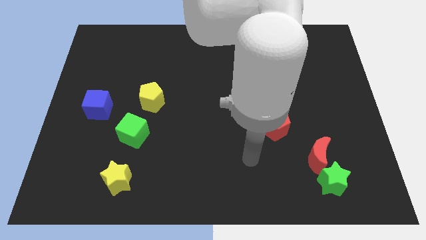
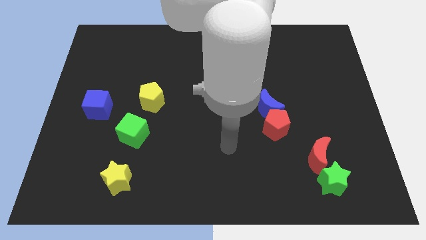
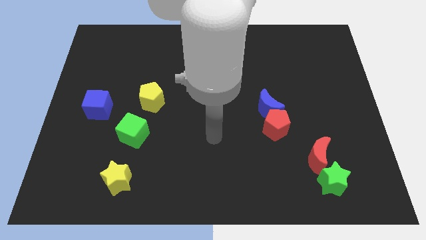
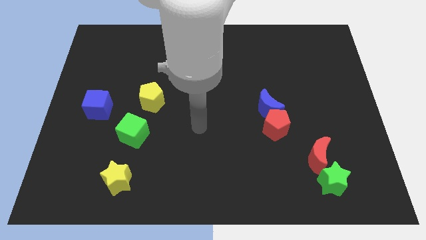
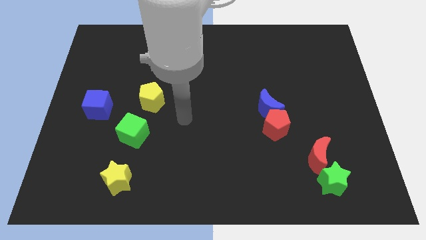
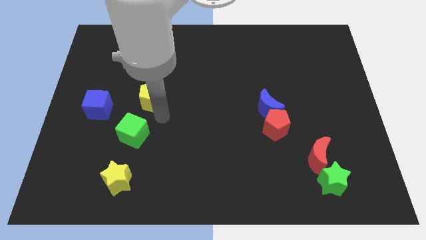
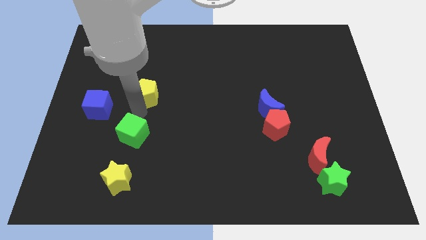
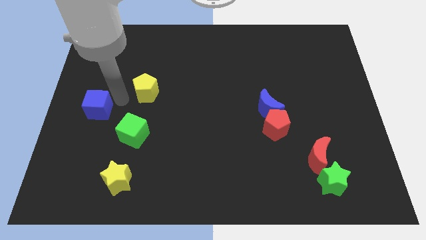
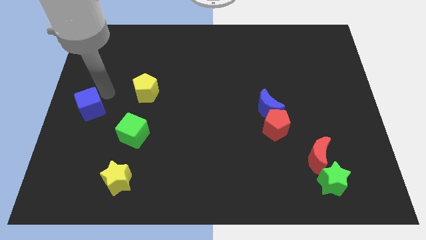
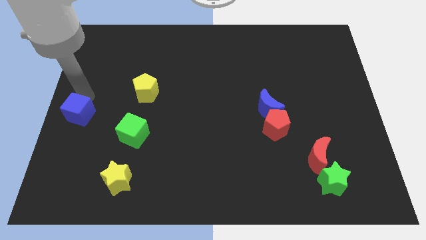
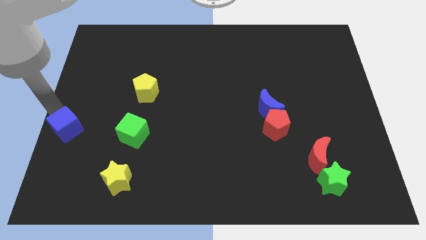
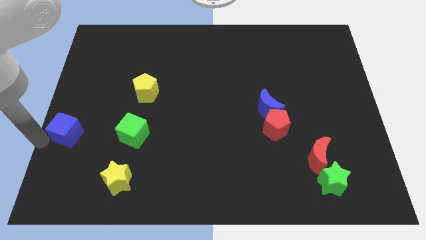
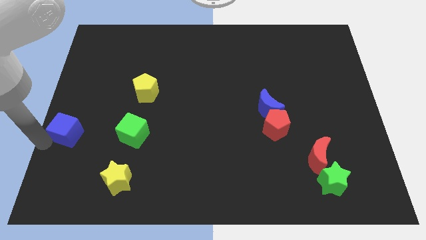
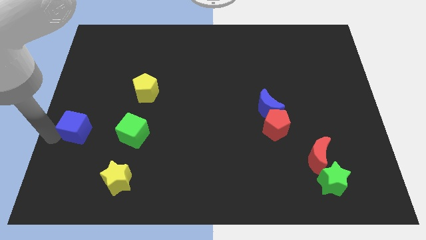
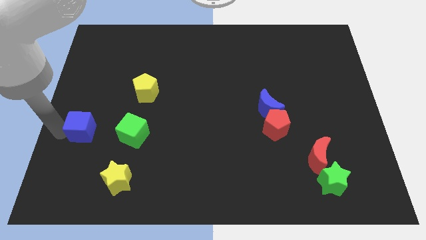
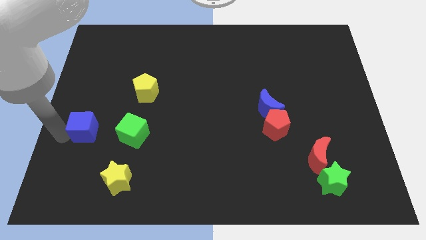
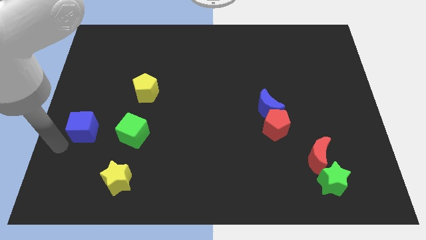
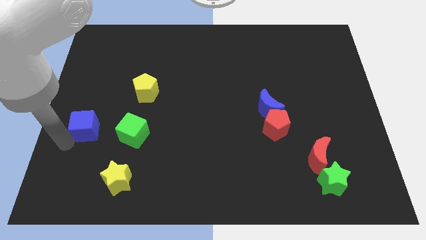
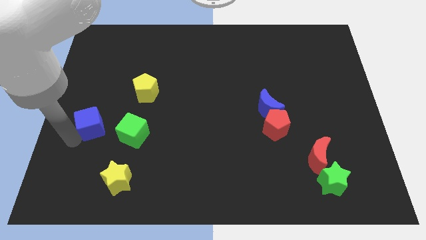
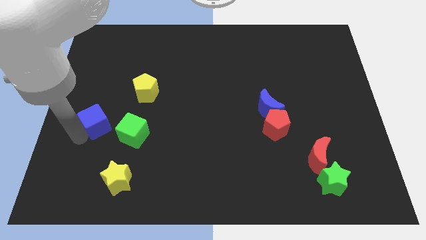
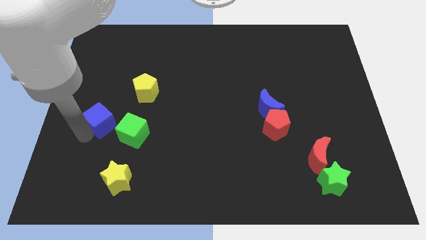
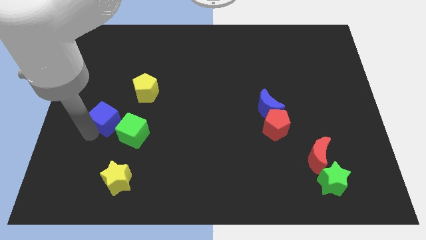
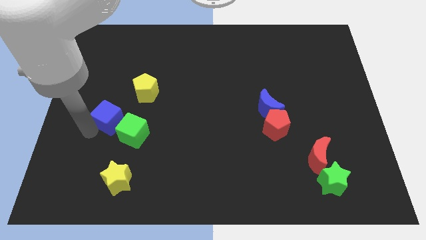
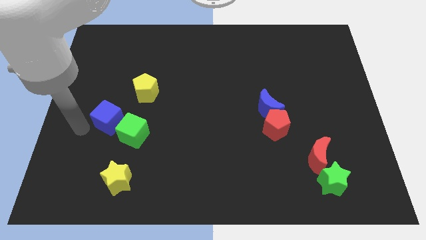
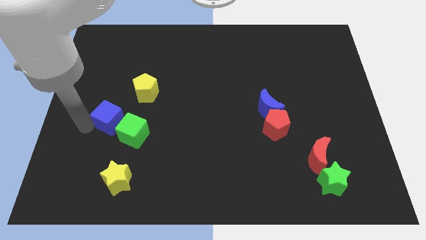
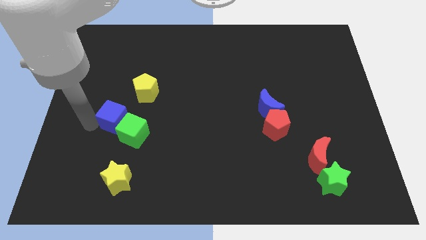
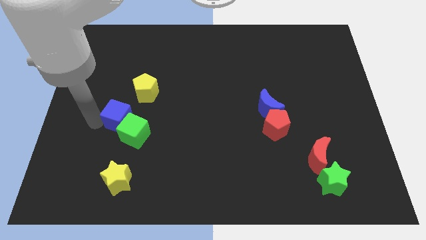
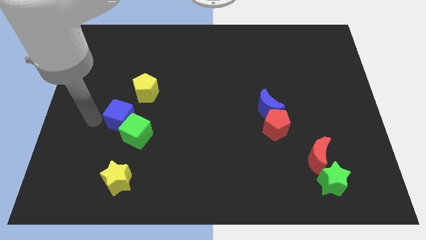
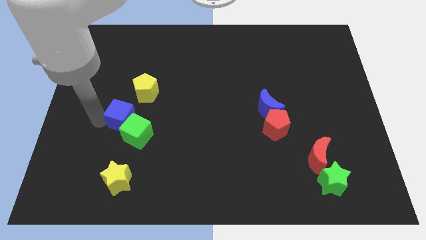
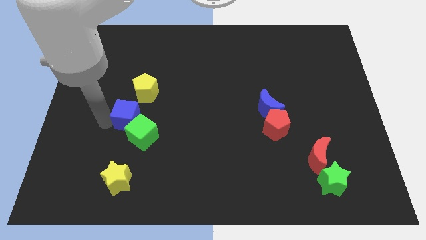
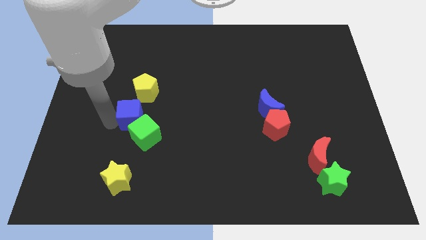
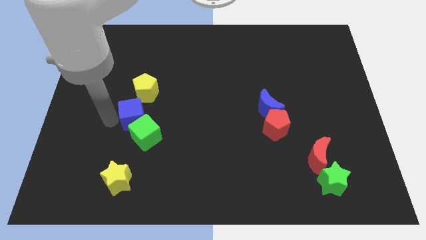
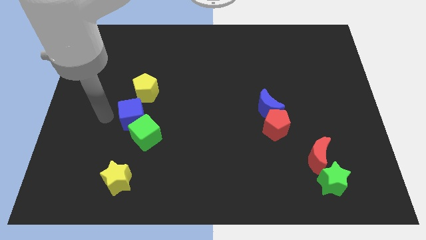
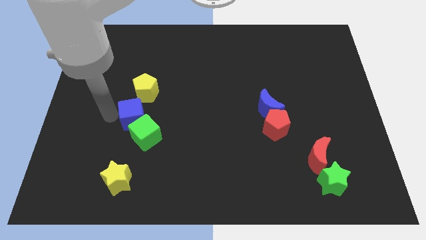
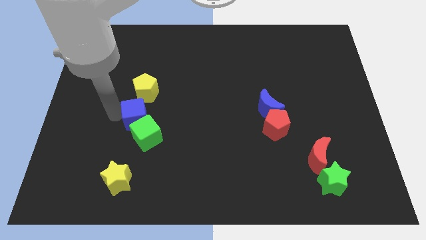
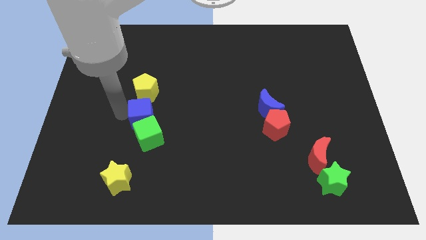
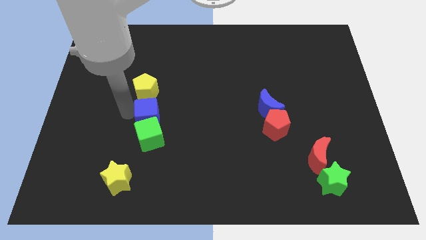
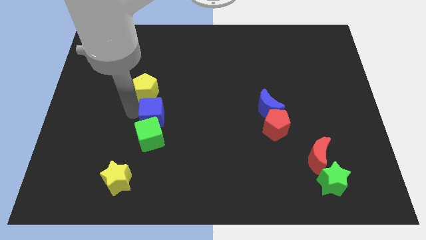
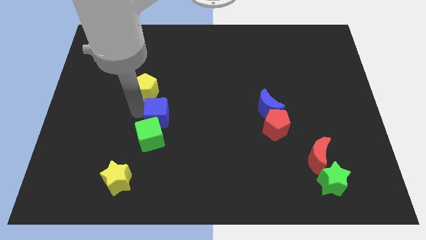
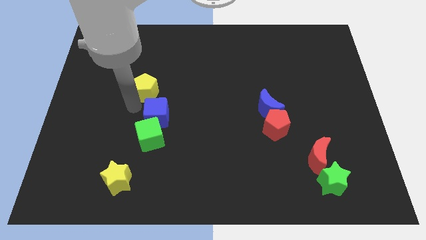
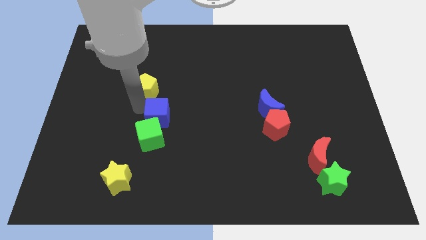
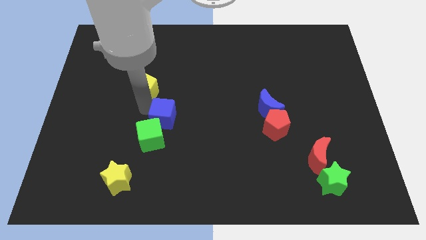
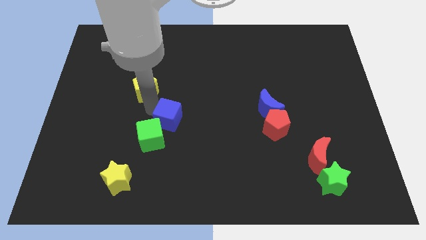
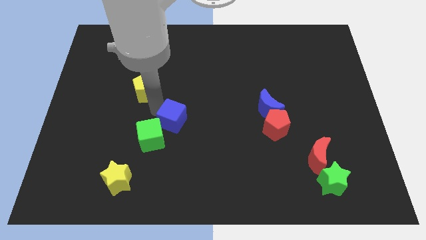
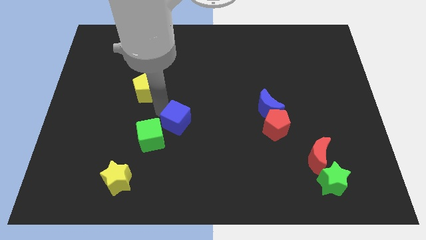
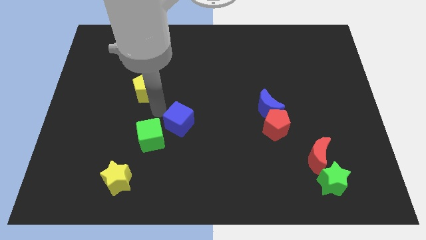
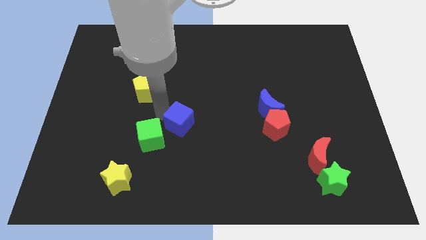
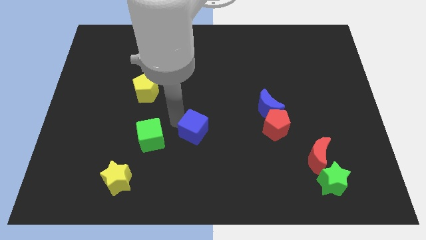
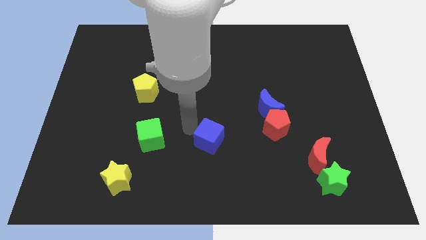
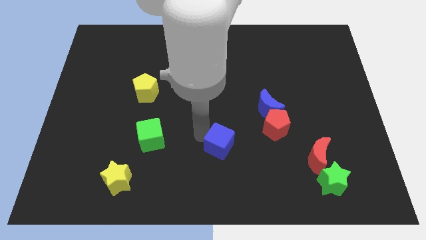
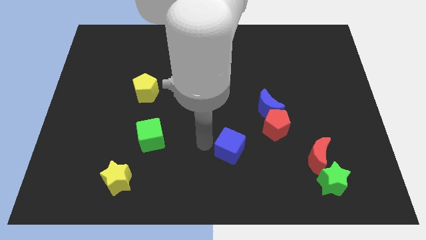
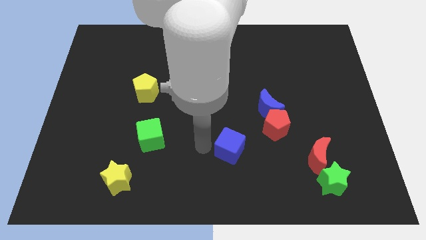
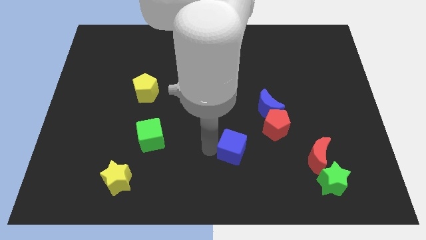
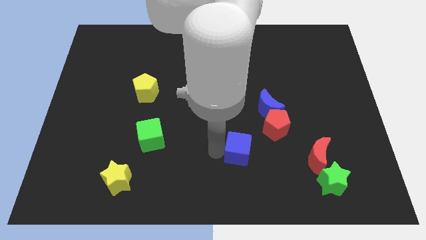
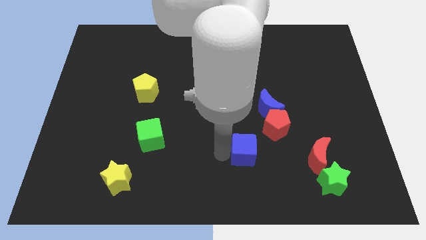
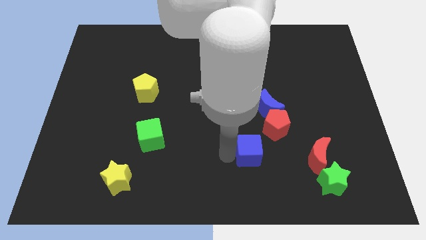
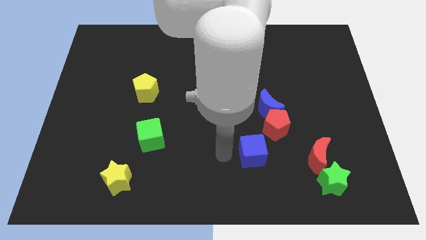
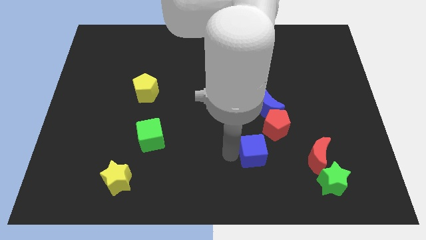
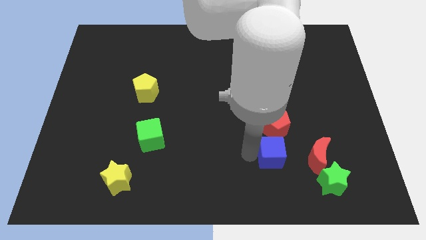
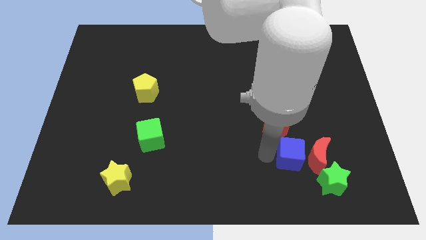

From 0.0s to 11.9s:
move the blue cube close to the red moon
